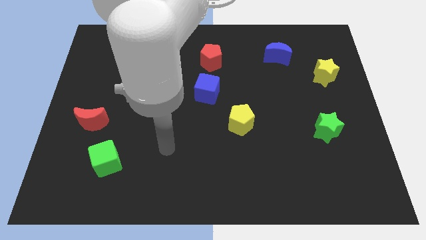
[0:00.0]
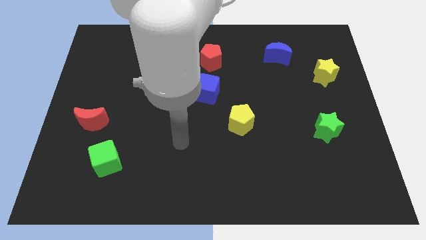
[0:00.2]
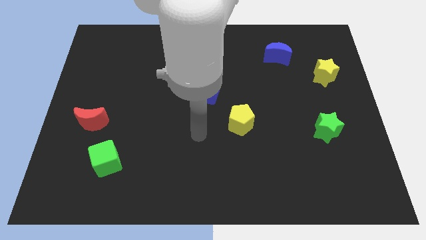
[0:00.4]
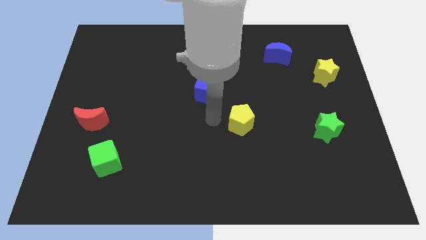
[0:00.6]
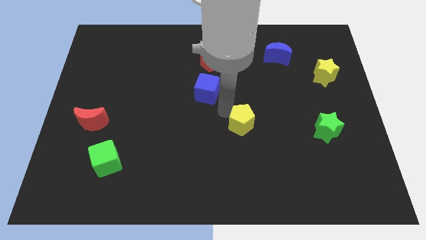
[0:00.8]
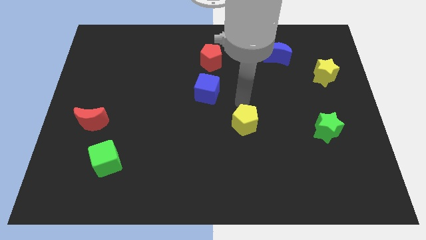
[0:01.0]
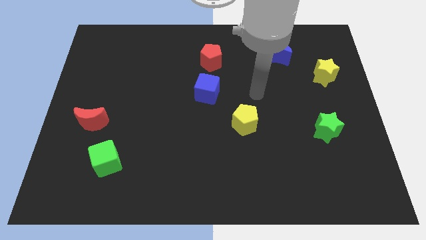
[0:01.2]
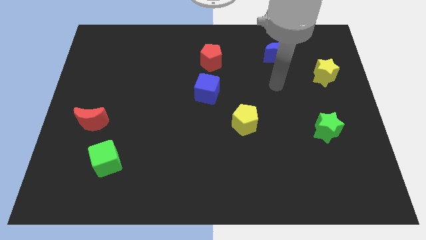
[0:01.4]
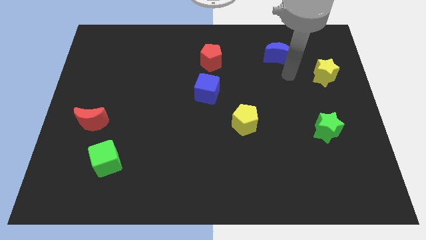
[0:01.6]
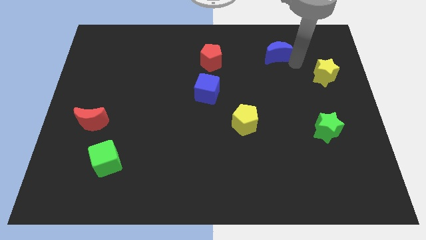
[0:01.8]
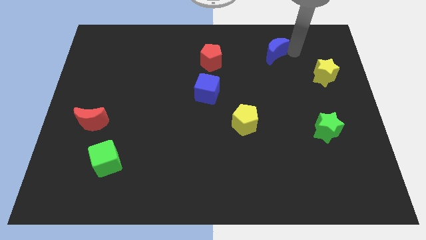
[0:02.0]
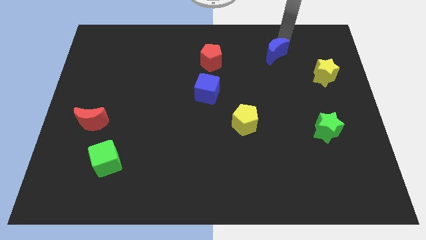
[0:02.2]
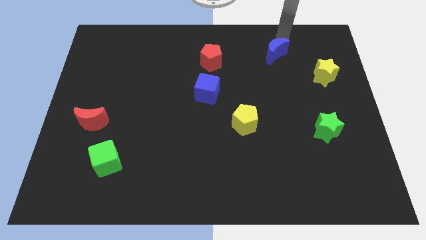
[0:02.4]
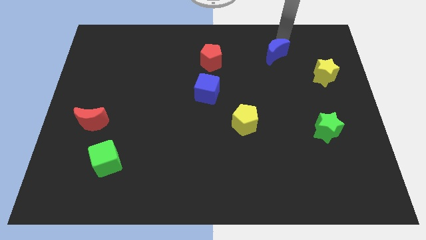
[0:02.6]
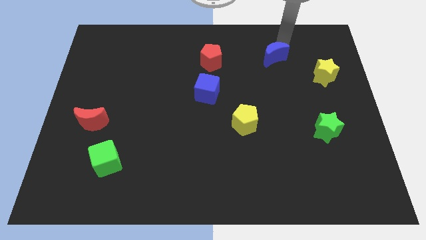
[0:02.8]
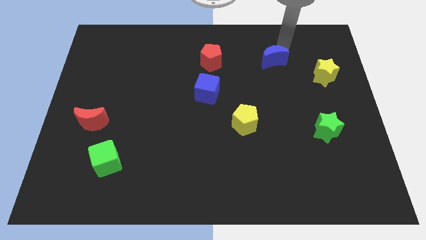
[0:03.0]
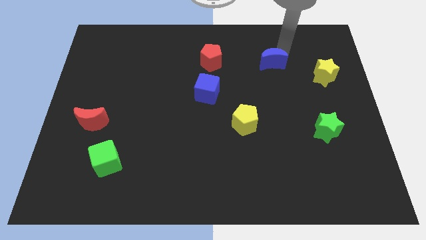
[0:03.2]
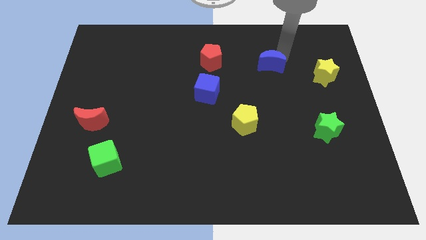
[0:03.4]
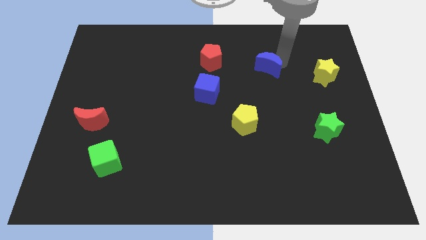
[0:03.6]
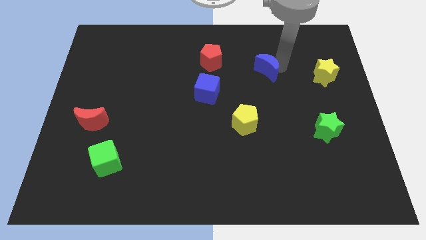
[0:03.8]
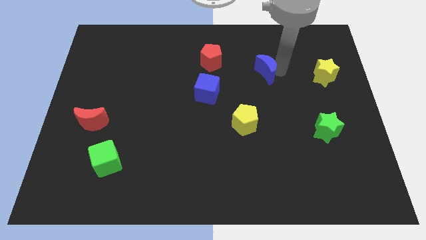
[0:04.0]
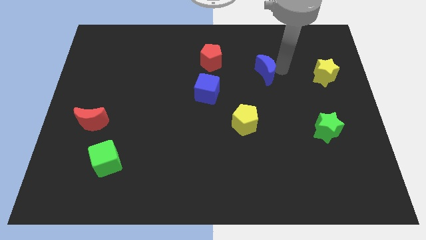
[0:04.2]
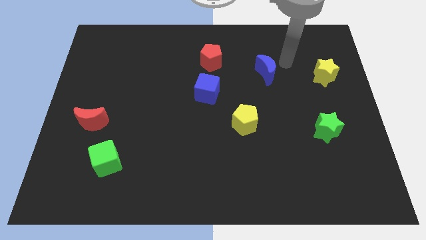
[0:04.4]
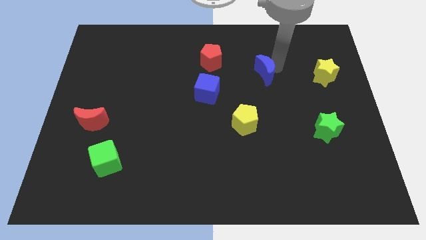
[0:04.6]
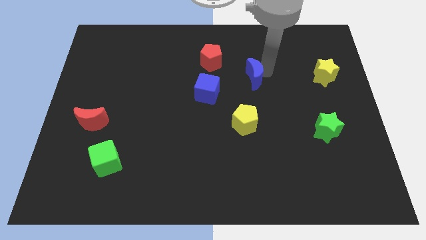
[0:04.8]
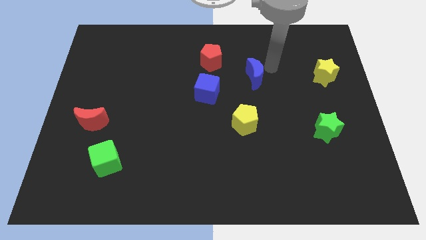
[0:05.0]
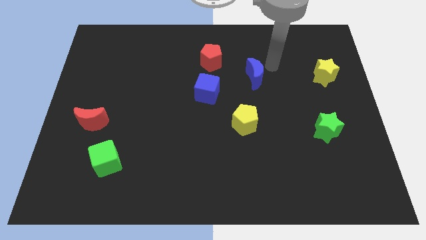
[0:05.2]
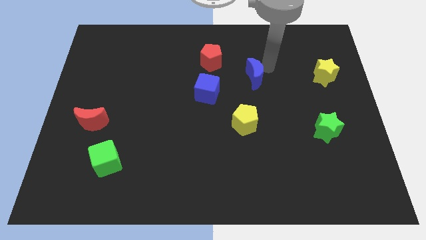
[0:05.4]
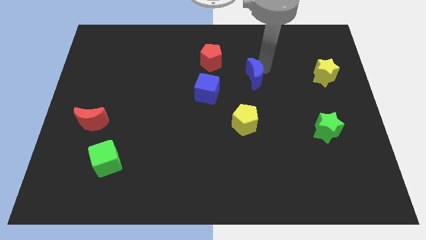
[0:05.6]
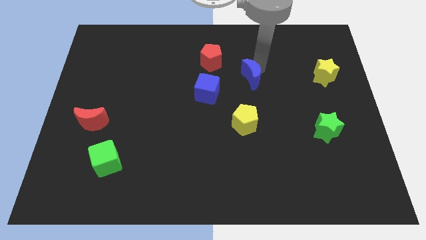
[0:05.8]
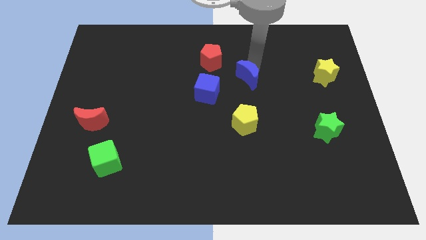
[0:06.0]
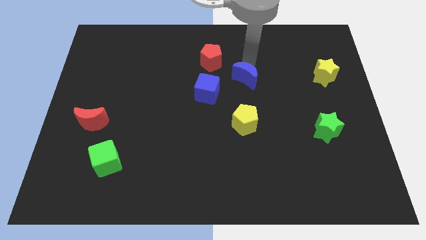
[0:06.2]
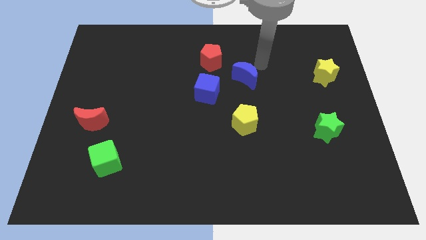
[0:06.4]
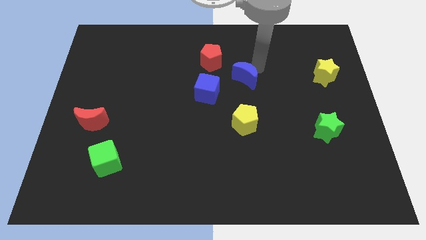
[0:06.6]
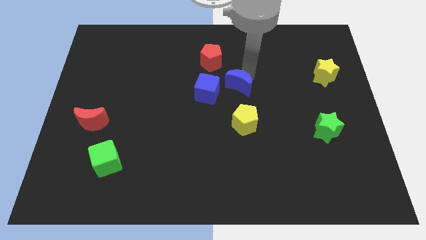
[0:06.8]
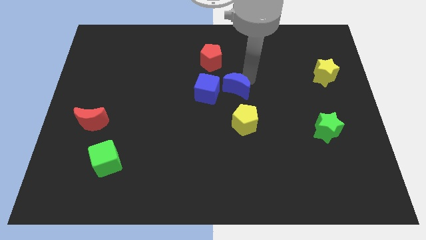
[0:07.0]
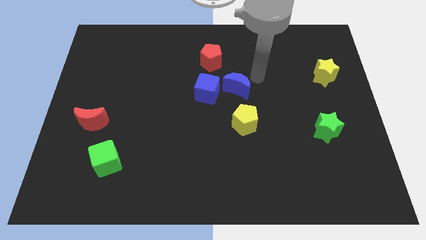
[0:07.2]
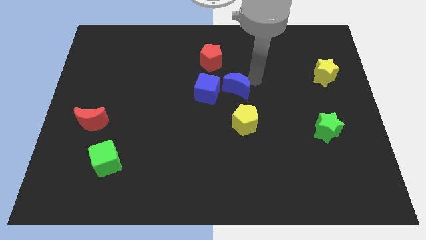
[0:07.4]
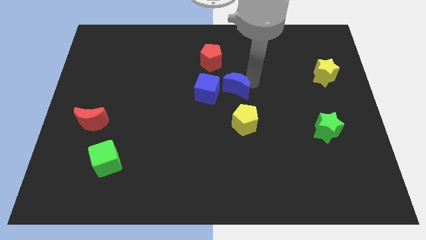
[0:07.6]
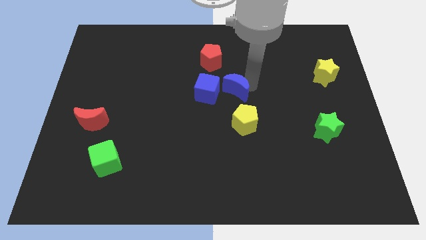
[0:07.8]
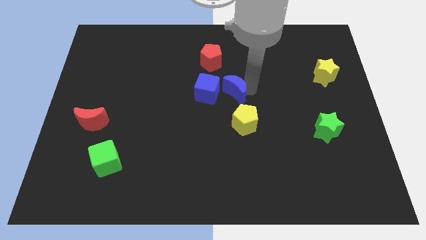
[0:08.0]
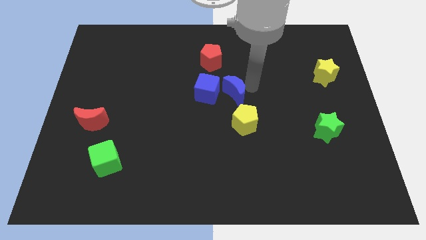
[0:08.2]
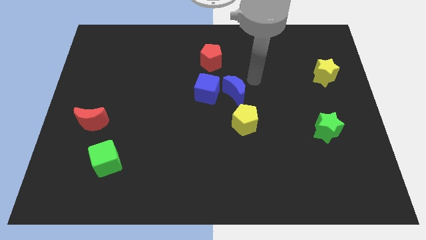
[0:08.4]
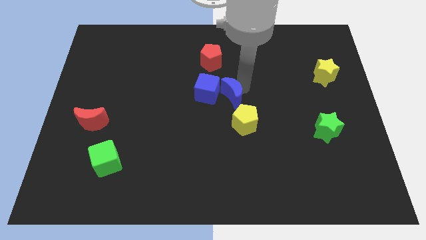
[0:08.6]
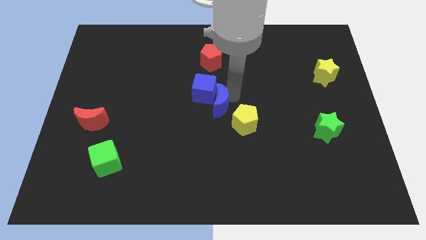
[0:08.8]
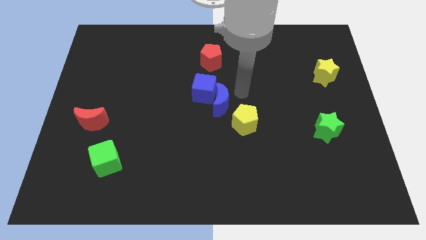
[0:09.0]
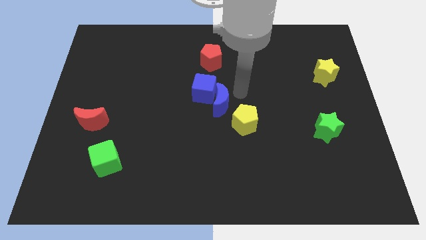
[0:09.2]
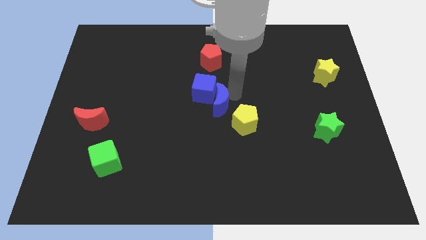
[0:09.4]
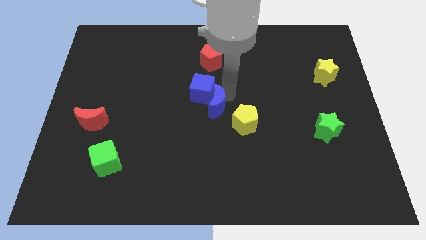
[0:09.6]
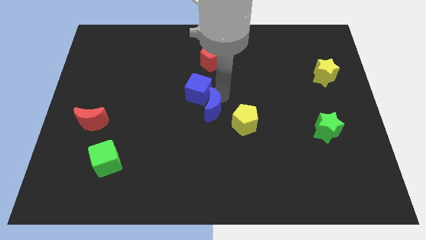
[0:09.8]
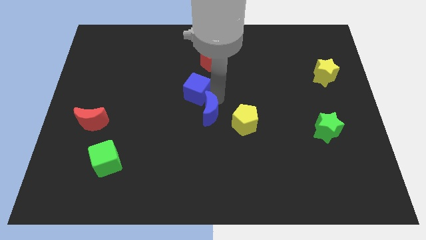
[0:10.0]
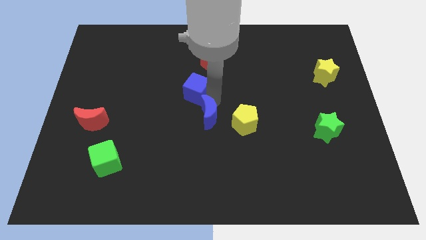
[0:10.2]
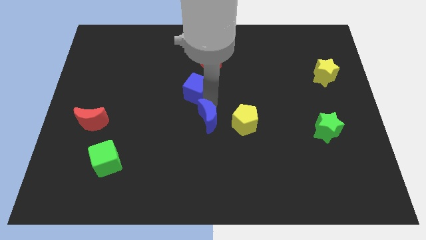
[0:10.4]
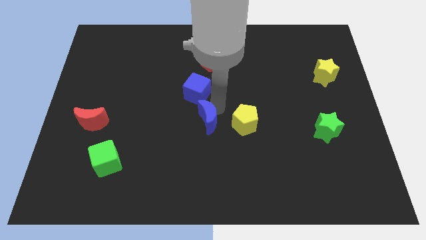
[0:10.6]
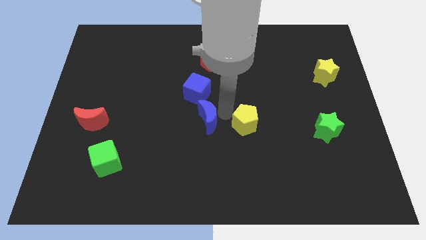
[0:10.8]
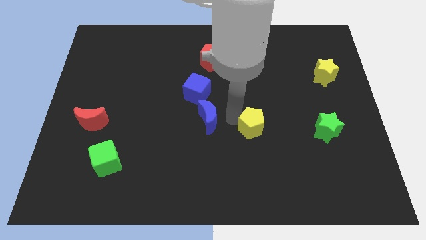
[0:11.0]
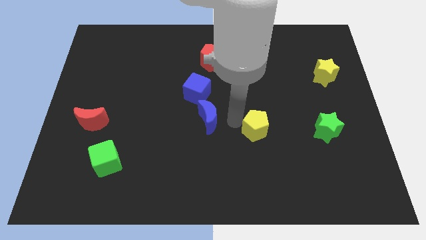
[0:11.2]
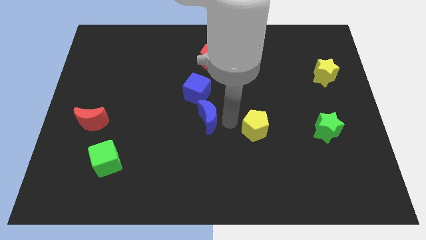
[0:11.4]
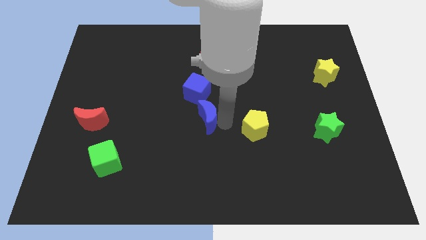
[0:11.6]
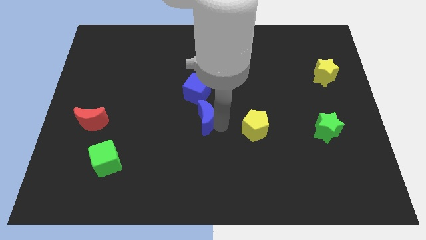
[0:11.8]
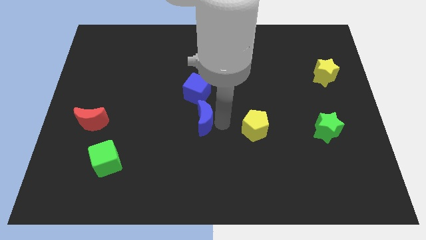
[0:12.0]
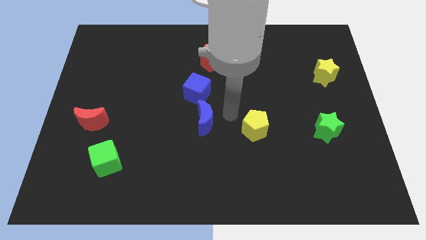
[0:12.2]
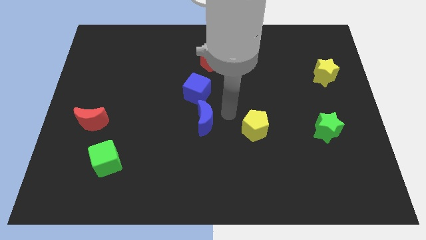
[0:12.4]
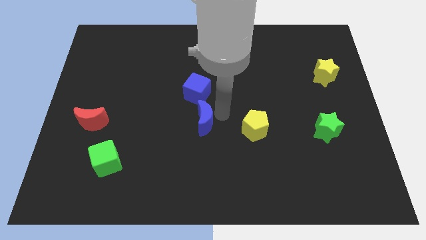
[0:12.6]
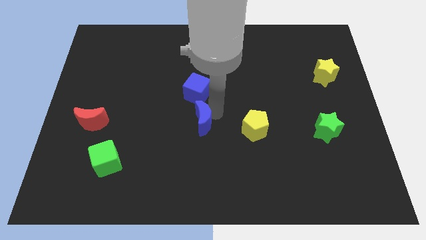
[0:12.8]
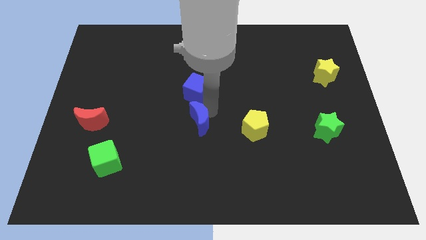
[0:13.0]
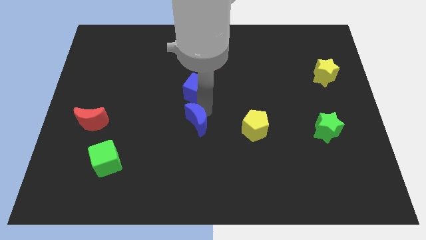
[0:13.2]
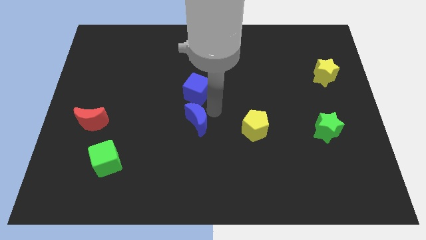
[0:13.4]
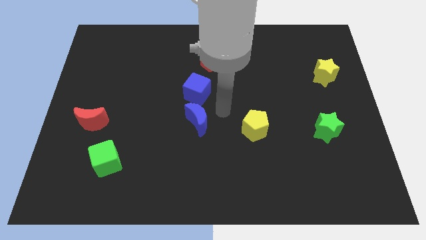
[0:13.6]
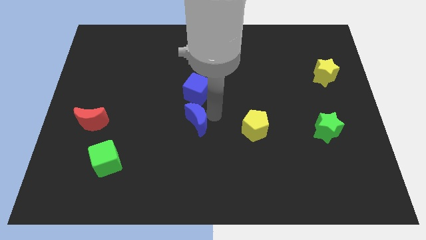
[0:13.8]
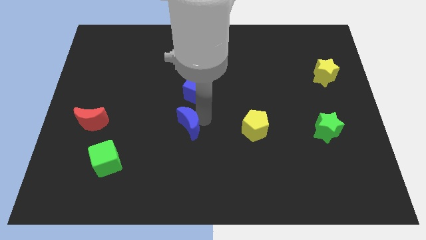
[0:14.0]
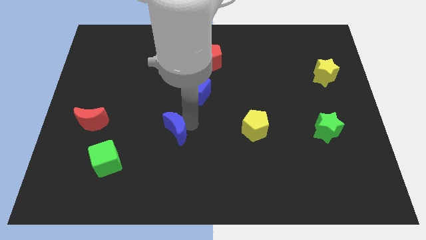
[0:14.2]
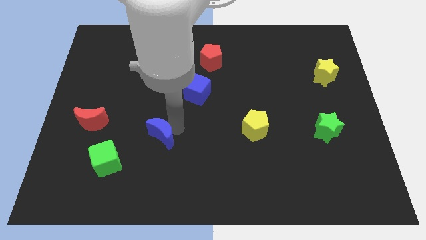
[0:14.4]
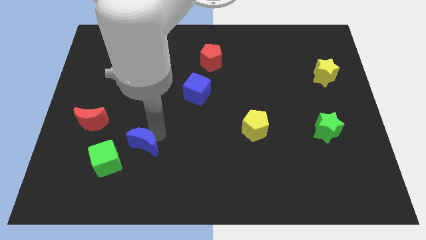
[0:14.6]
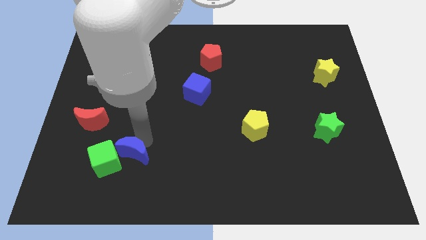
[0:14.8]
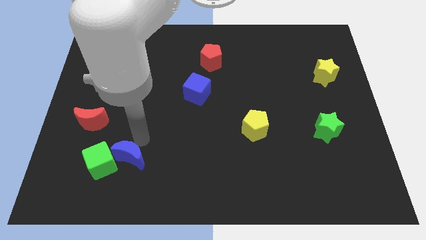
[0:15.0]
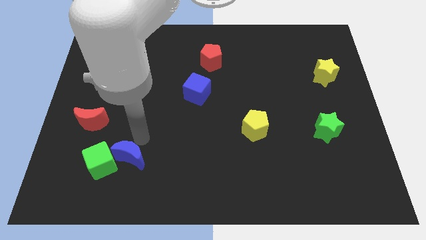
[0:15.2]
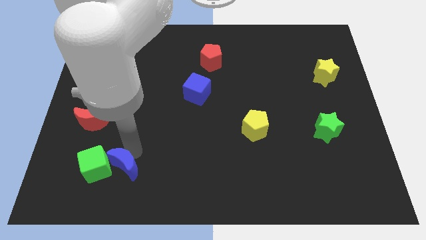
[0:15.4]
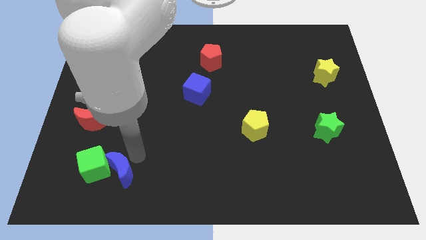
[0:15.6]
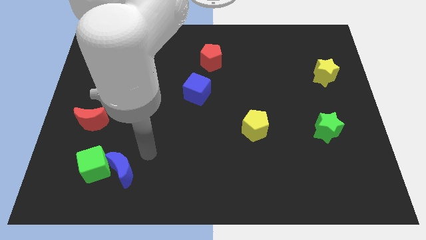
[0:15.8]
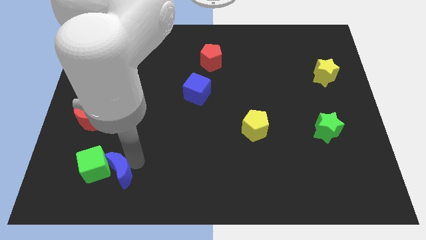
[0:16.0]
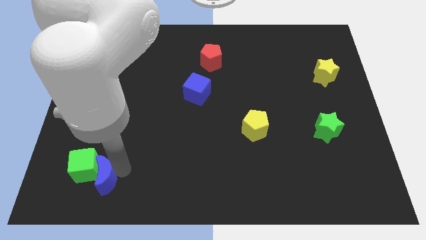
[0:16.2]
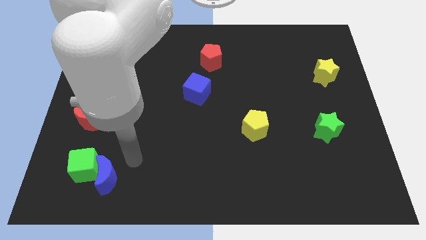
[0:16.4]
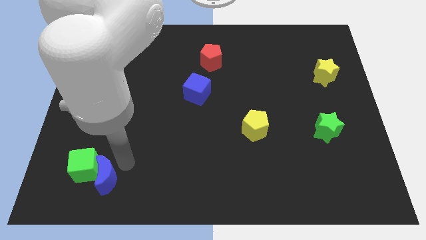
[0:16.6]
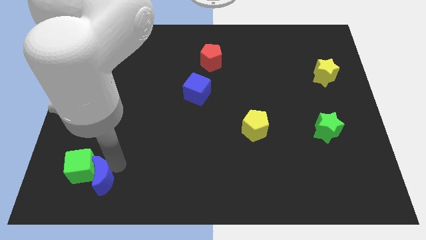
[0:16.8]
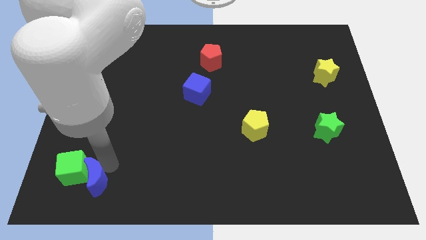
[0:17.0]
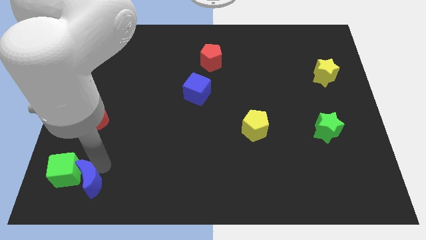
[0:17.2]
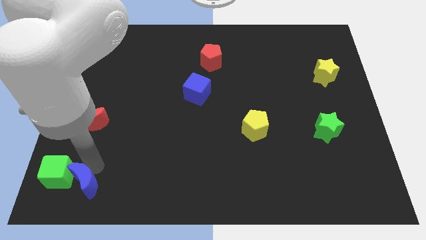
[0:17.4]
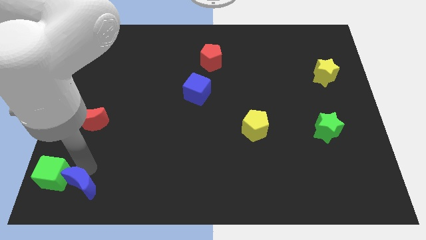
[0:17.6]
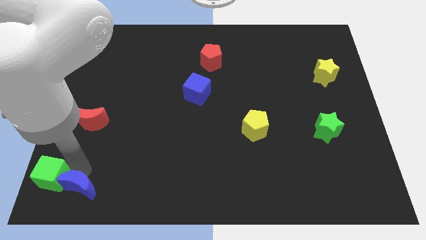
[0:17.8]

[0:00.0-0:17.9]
move the blue moon to the bottom left of the board
